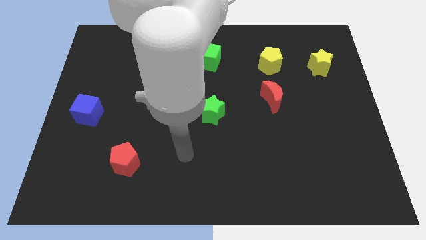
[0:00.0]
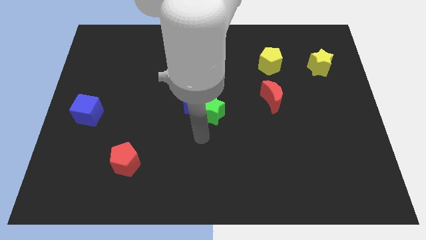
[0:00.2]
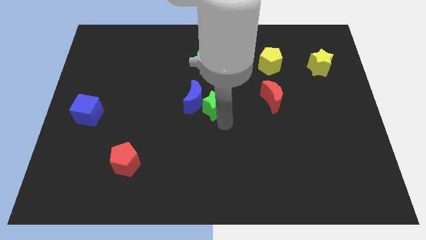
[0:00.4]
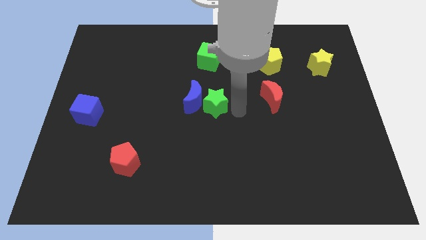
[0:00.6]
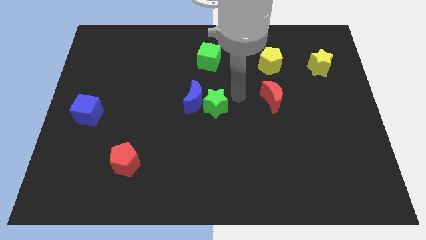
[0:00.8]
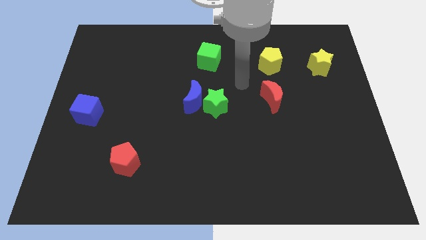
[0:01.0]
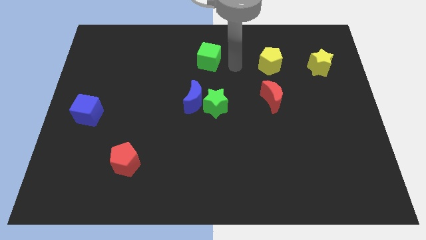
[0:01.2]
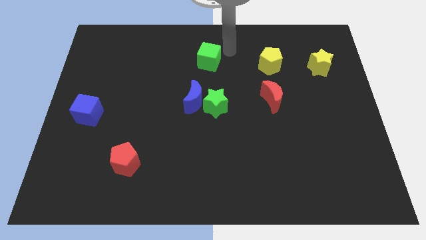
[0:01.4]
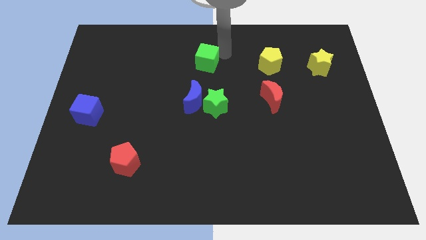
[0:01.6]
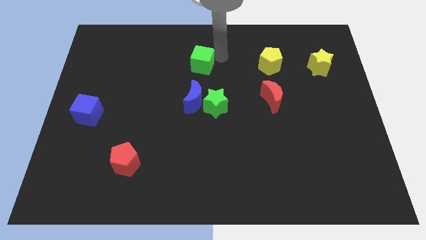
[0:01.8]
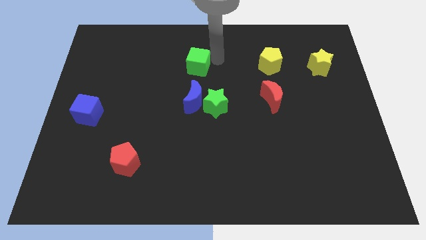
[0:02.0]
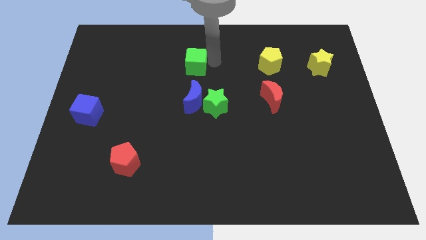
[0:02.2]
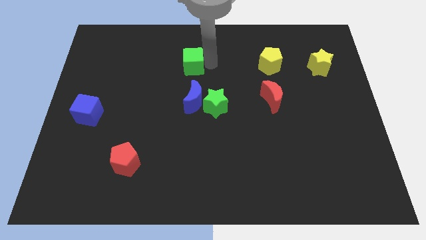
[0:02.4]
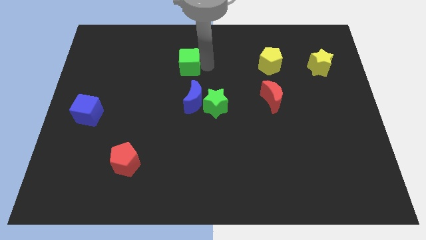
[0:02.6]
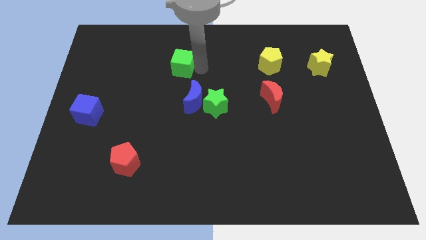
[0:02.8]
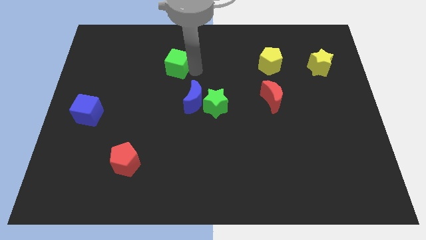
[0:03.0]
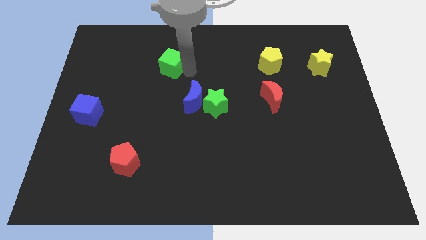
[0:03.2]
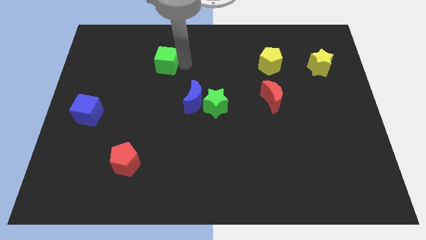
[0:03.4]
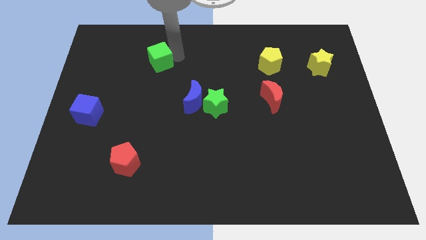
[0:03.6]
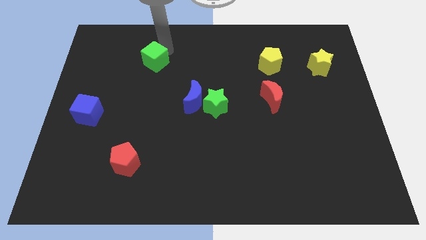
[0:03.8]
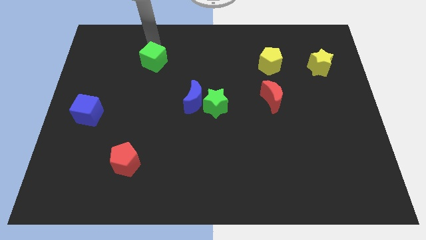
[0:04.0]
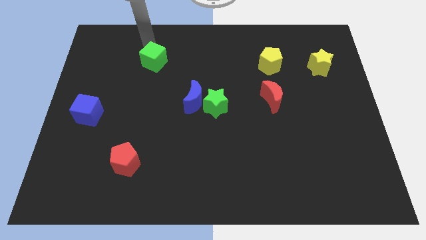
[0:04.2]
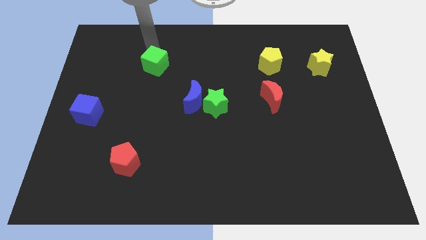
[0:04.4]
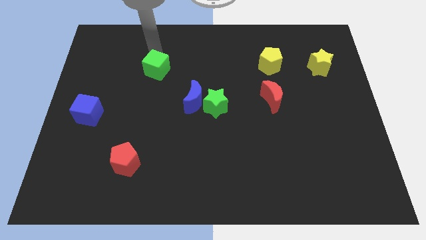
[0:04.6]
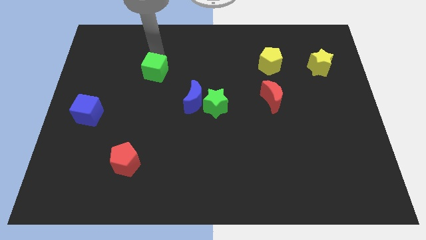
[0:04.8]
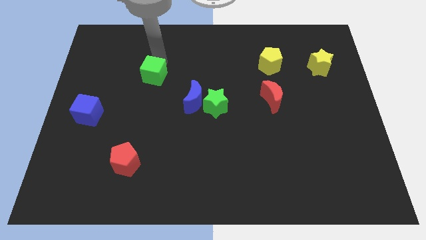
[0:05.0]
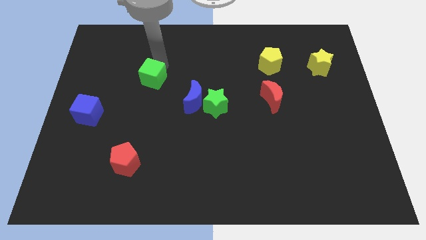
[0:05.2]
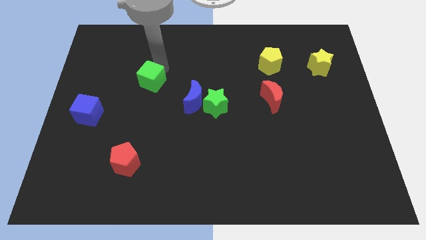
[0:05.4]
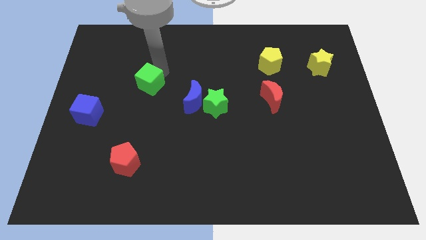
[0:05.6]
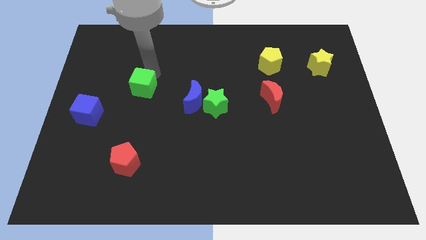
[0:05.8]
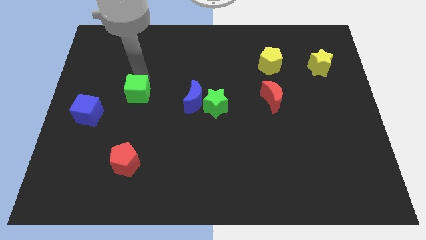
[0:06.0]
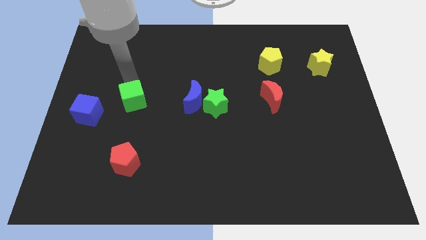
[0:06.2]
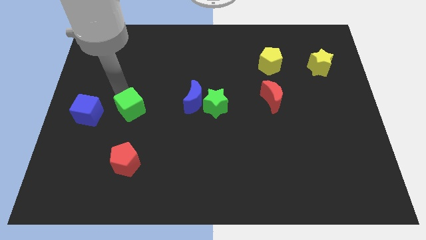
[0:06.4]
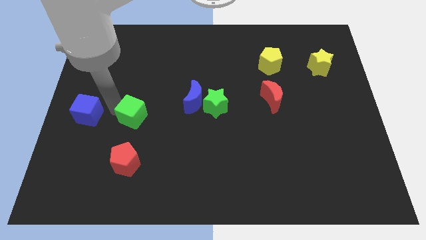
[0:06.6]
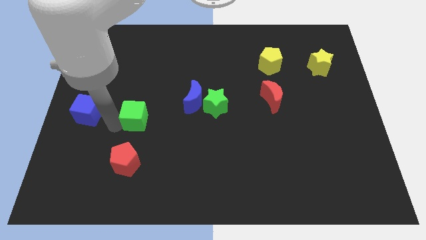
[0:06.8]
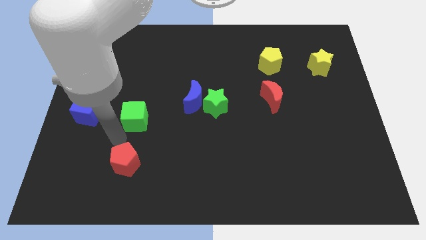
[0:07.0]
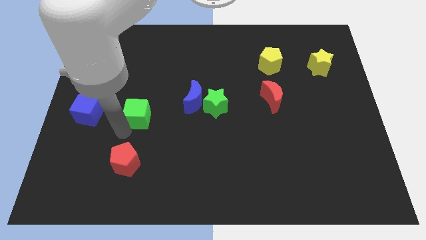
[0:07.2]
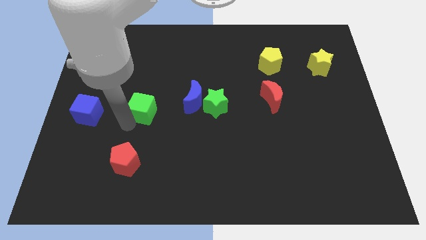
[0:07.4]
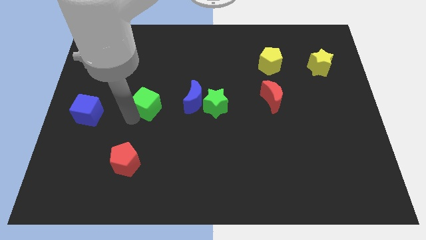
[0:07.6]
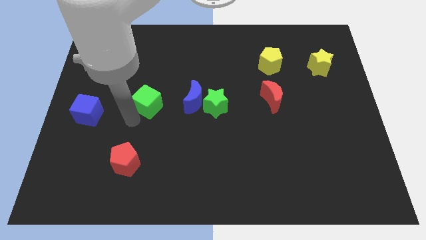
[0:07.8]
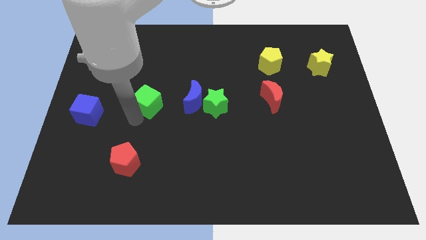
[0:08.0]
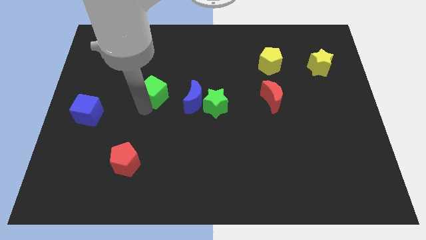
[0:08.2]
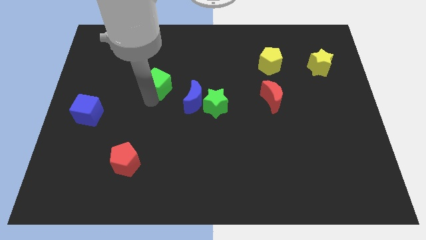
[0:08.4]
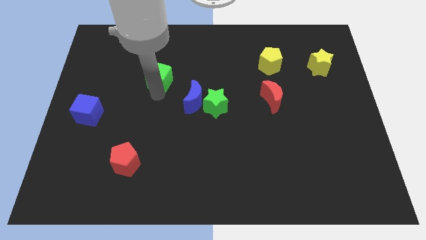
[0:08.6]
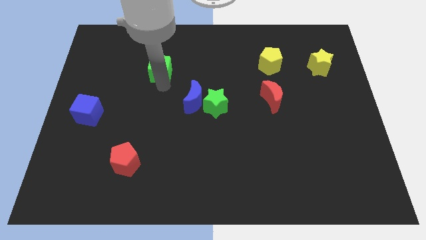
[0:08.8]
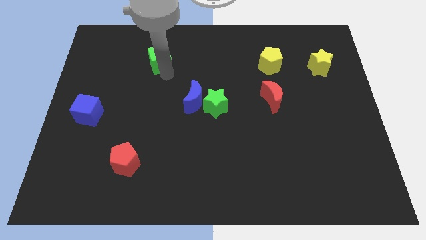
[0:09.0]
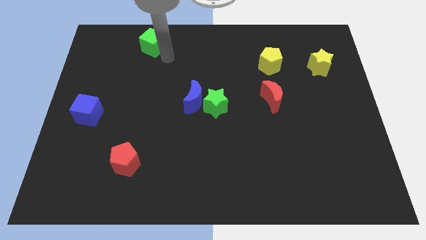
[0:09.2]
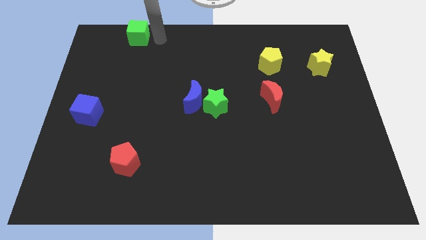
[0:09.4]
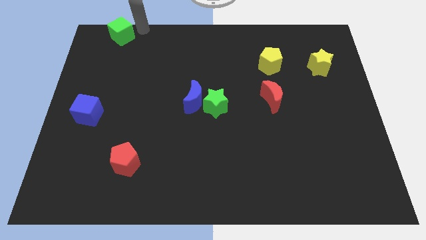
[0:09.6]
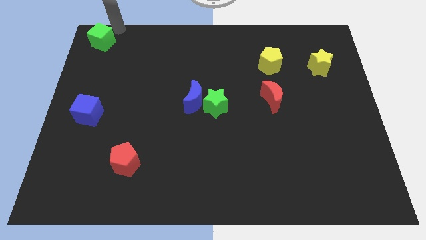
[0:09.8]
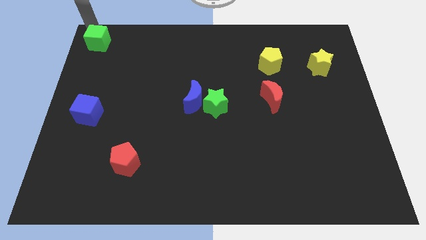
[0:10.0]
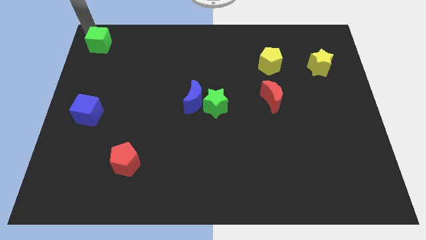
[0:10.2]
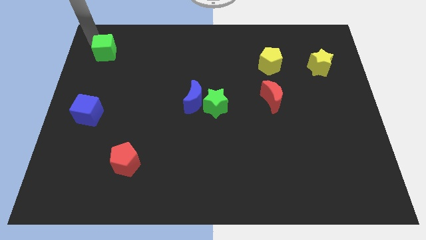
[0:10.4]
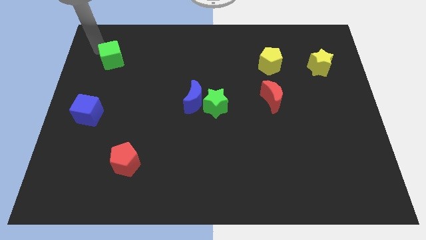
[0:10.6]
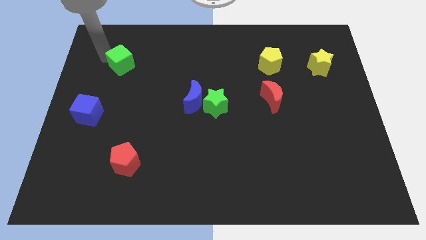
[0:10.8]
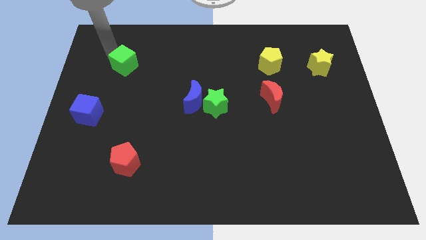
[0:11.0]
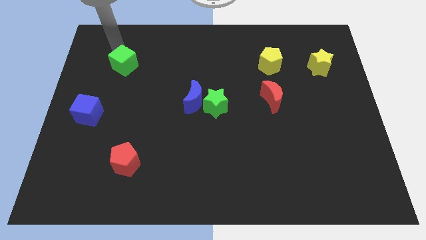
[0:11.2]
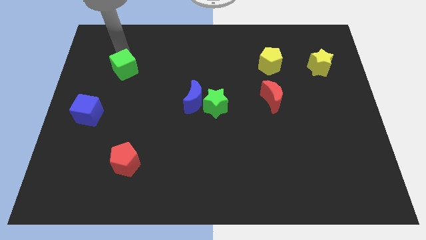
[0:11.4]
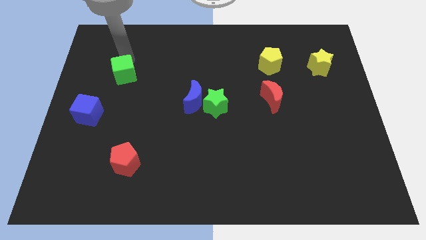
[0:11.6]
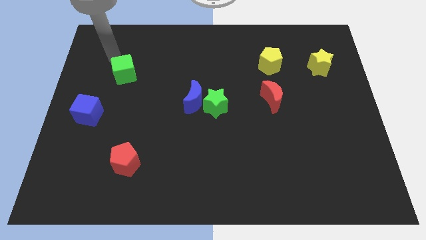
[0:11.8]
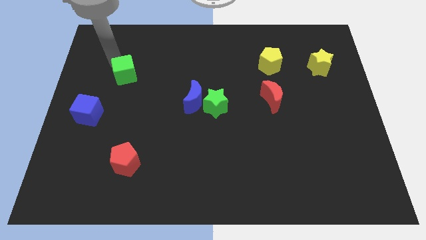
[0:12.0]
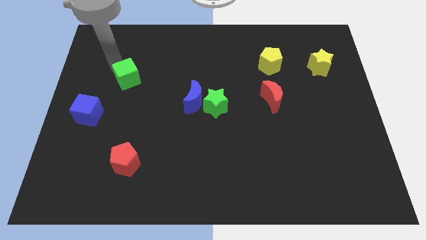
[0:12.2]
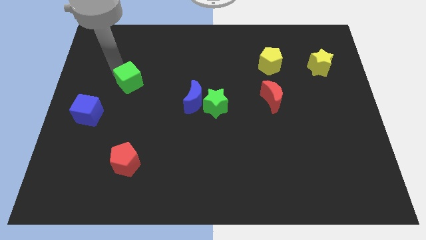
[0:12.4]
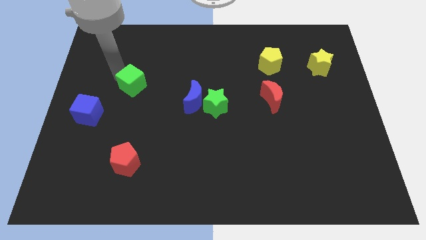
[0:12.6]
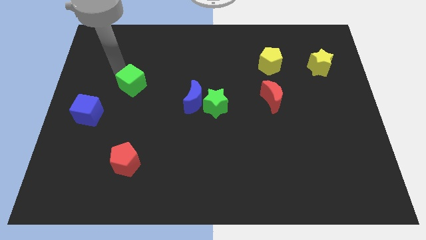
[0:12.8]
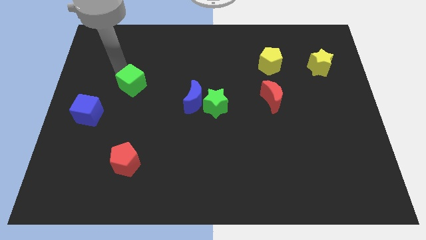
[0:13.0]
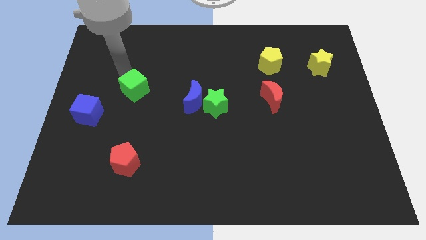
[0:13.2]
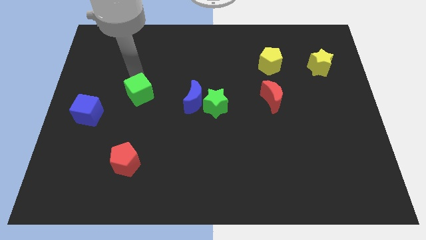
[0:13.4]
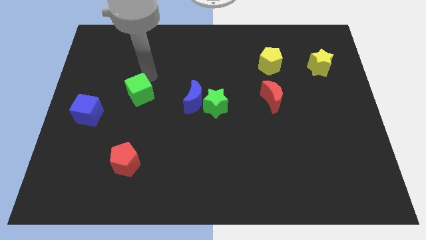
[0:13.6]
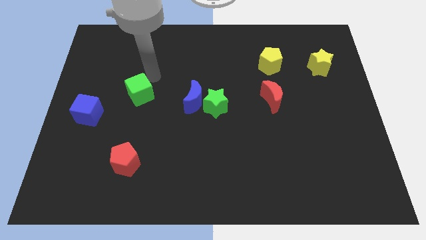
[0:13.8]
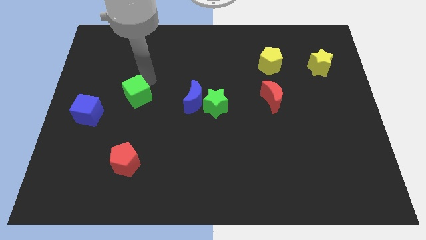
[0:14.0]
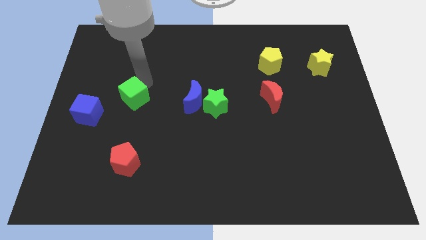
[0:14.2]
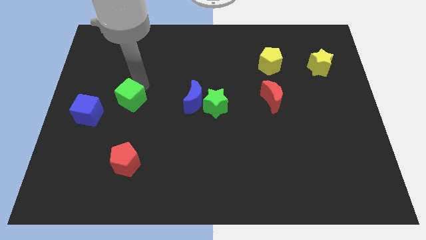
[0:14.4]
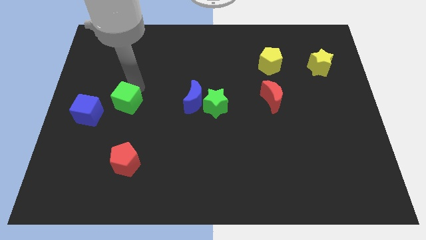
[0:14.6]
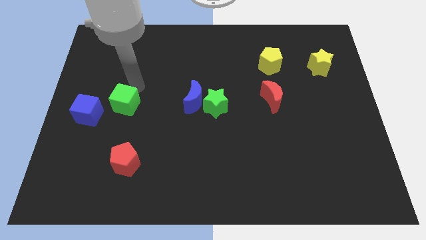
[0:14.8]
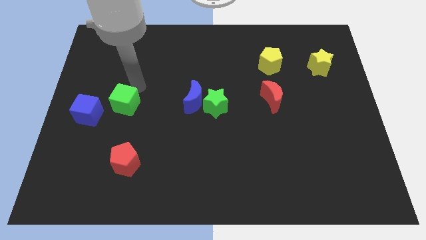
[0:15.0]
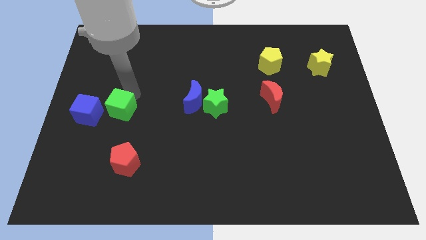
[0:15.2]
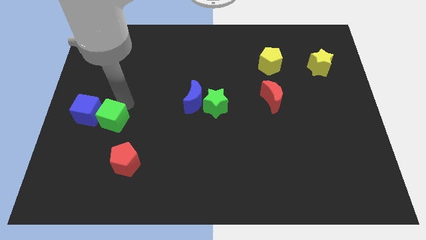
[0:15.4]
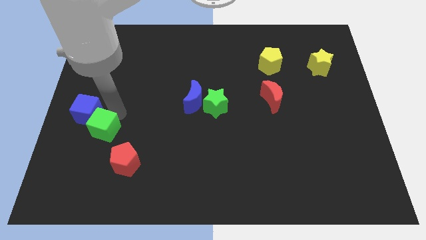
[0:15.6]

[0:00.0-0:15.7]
push the green cube to the bottom of the blue cube
